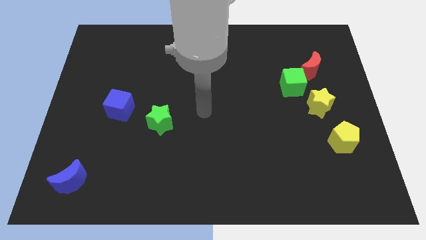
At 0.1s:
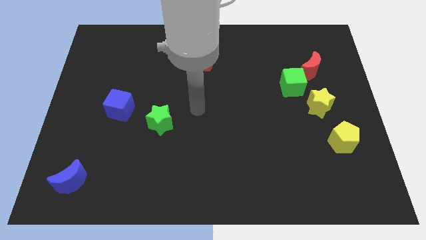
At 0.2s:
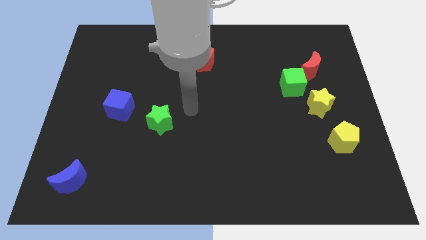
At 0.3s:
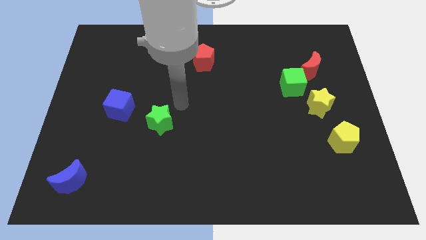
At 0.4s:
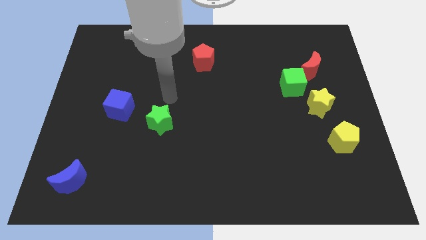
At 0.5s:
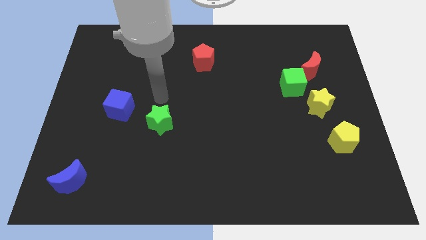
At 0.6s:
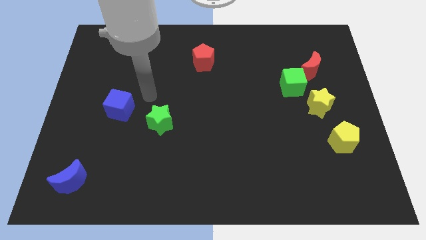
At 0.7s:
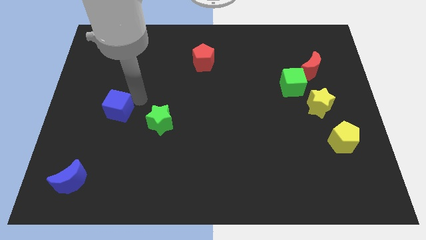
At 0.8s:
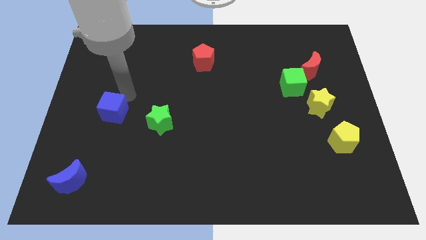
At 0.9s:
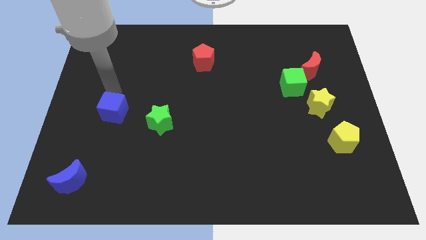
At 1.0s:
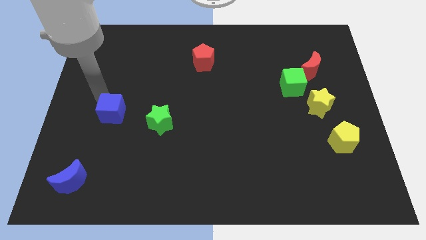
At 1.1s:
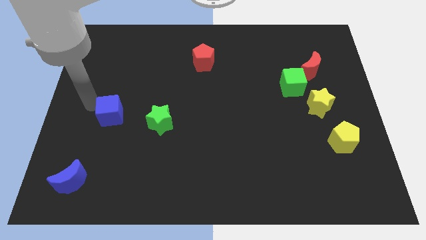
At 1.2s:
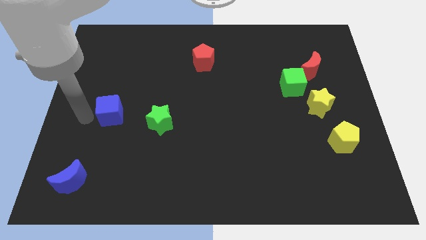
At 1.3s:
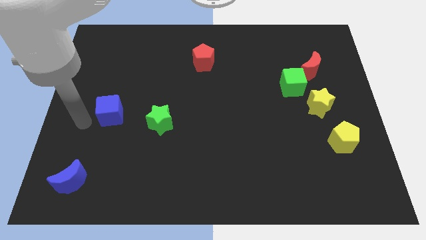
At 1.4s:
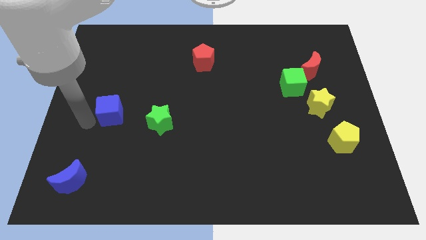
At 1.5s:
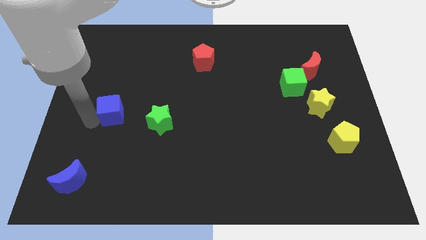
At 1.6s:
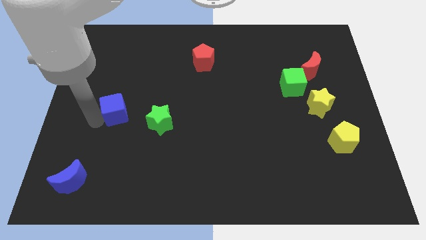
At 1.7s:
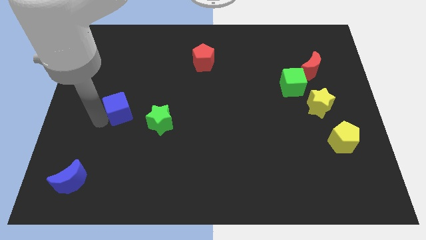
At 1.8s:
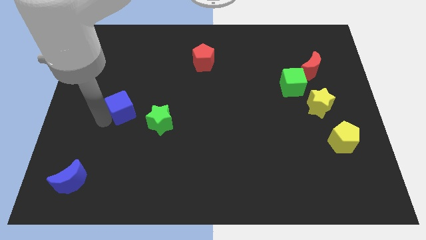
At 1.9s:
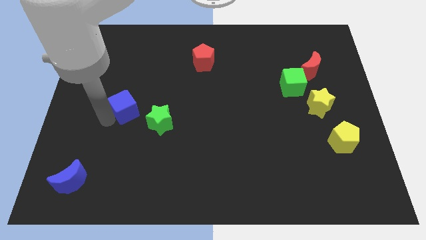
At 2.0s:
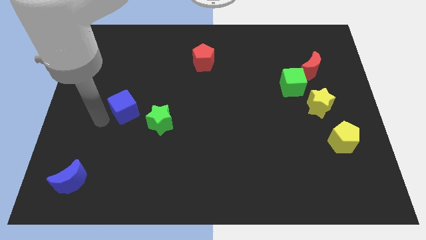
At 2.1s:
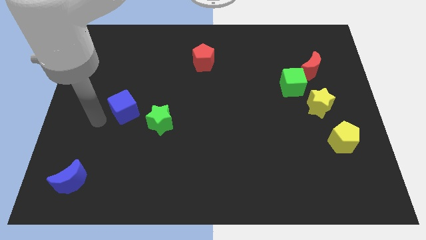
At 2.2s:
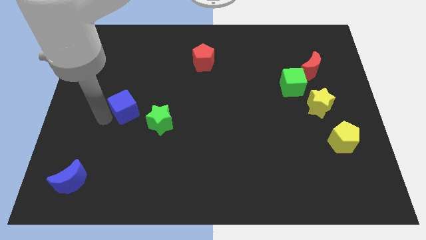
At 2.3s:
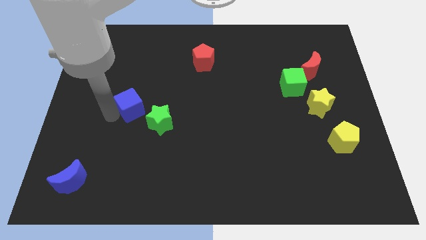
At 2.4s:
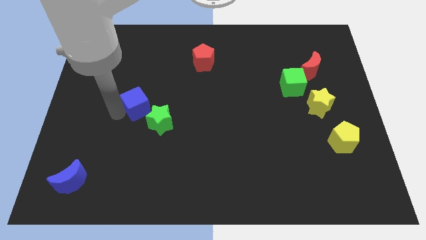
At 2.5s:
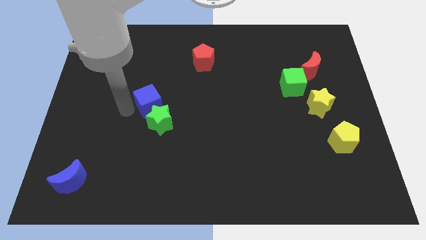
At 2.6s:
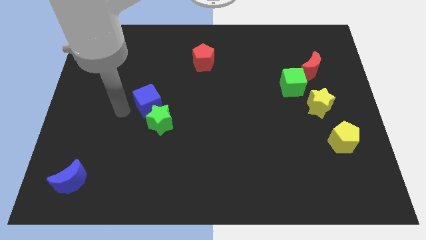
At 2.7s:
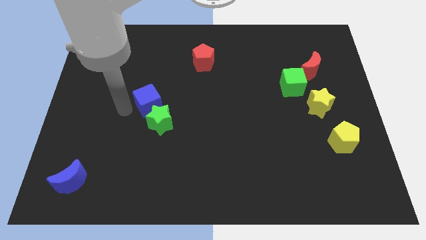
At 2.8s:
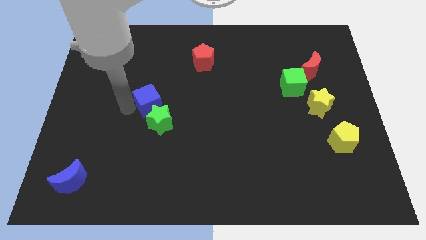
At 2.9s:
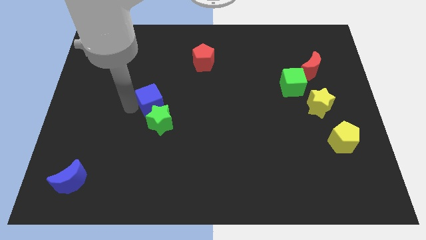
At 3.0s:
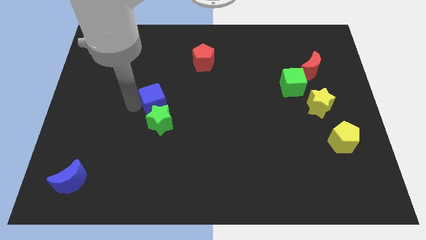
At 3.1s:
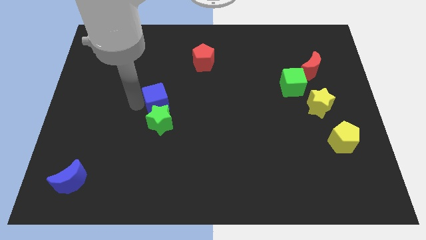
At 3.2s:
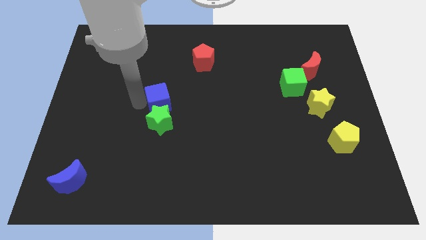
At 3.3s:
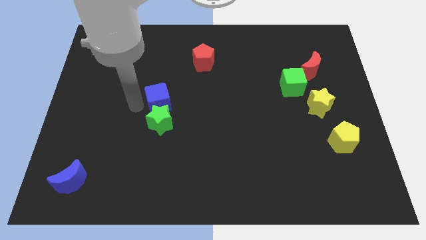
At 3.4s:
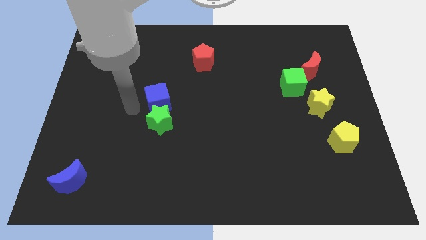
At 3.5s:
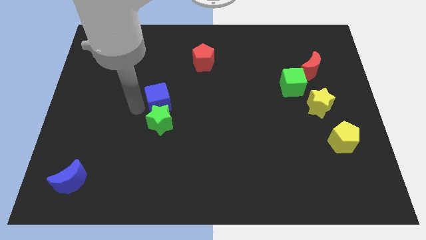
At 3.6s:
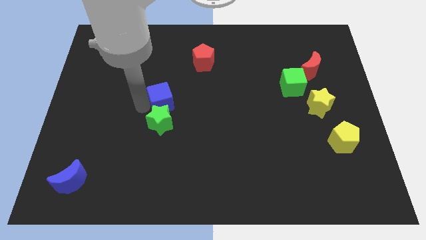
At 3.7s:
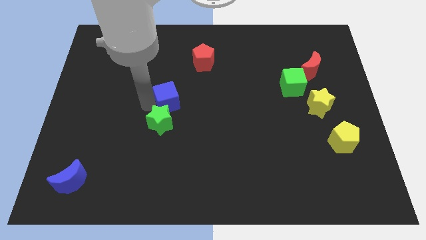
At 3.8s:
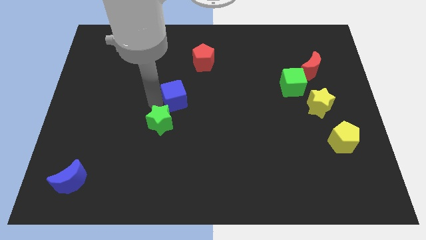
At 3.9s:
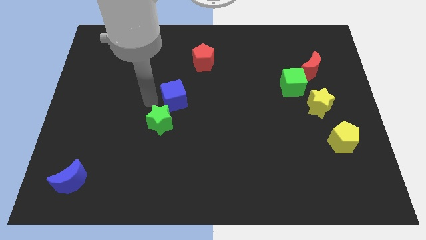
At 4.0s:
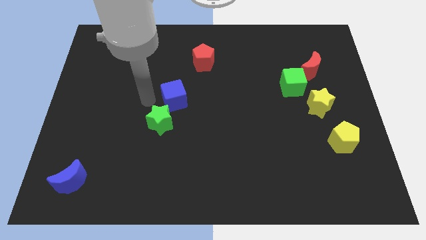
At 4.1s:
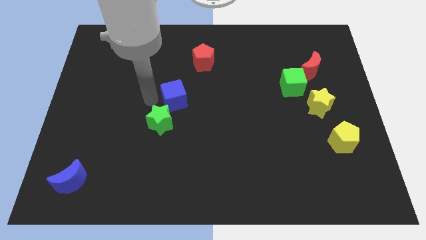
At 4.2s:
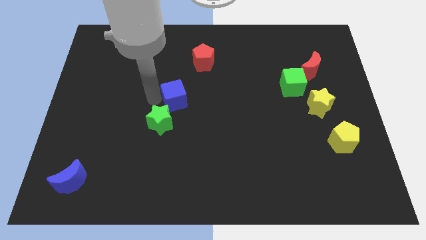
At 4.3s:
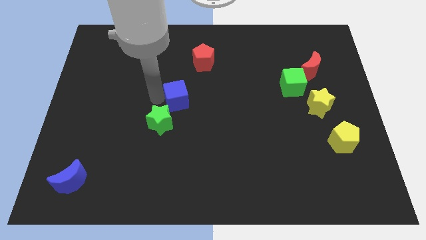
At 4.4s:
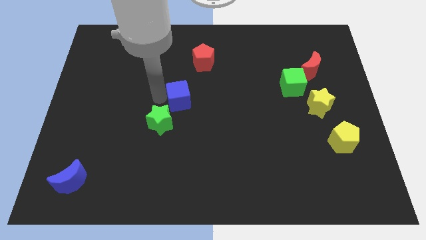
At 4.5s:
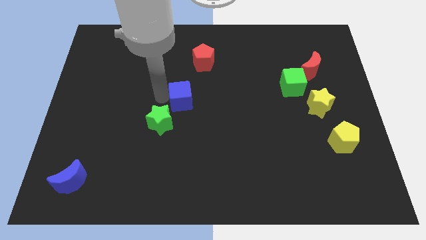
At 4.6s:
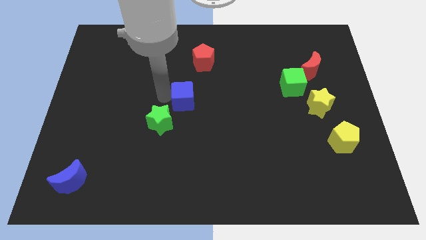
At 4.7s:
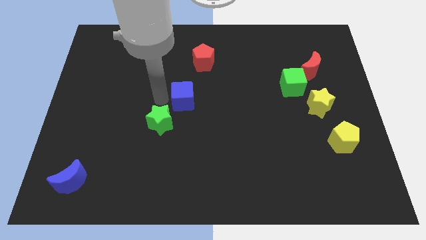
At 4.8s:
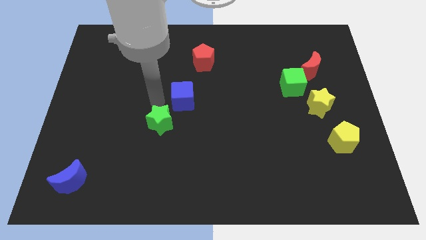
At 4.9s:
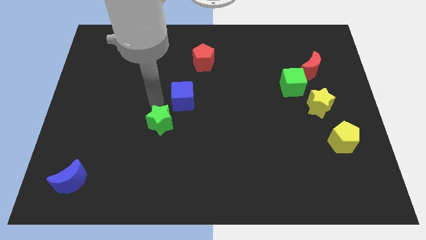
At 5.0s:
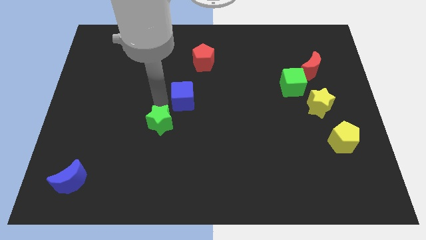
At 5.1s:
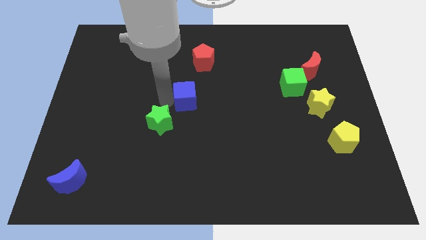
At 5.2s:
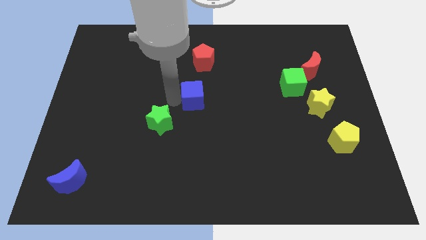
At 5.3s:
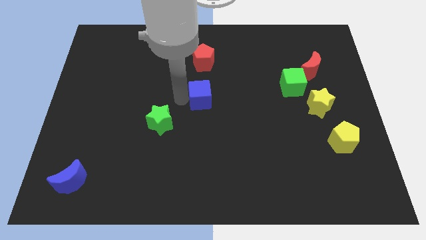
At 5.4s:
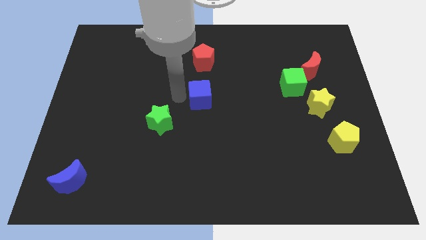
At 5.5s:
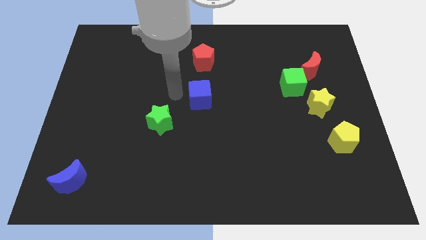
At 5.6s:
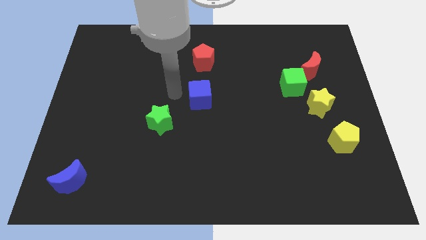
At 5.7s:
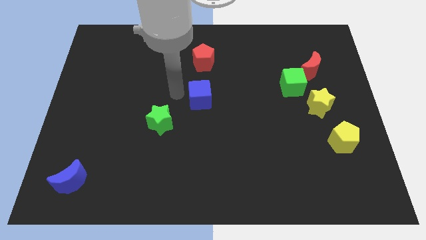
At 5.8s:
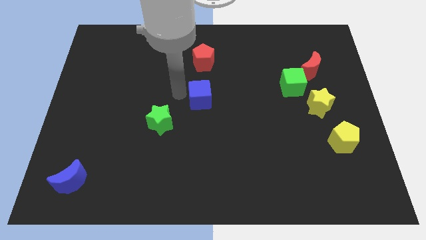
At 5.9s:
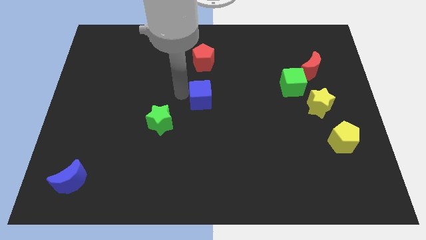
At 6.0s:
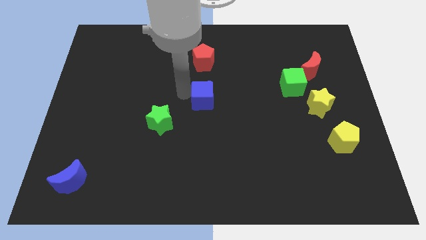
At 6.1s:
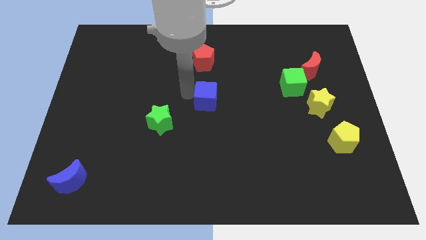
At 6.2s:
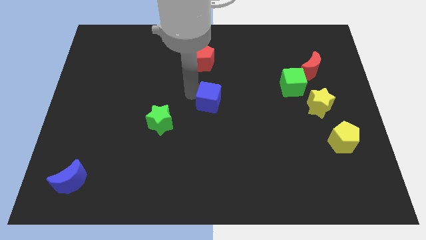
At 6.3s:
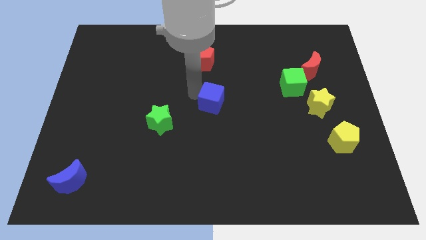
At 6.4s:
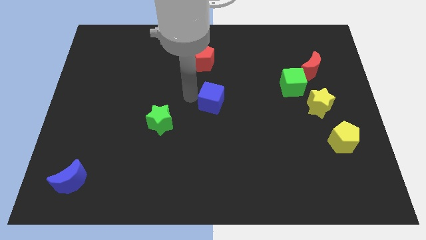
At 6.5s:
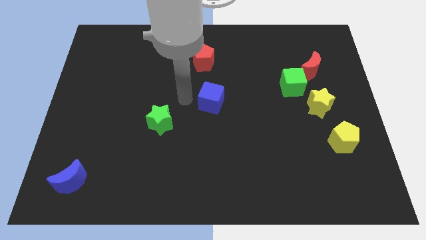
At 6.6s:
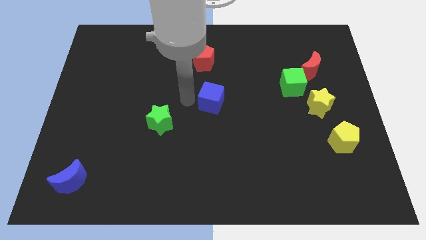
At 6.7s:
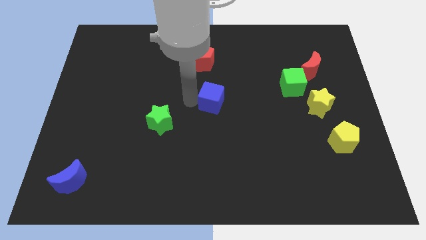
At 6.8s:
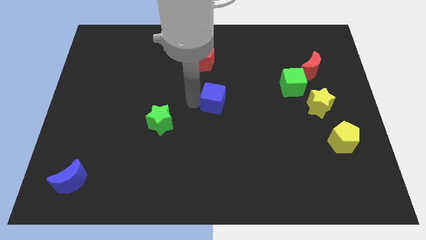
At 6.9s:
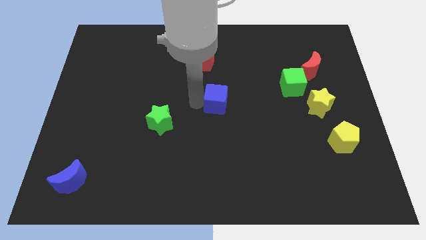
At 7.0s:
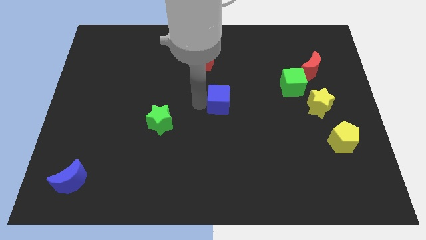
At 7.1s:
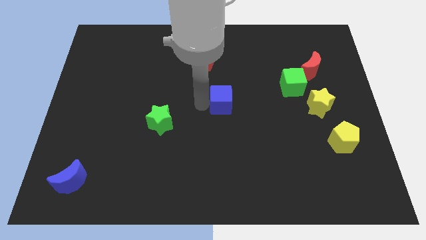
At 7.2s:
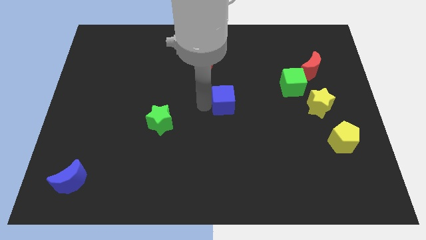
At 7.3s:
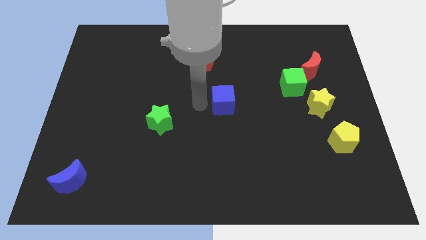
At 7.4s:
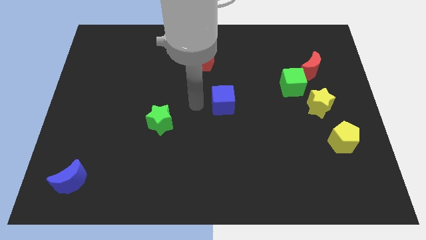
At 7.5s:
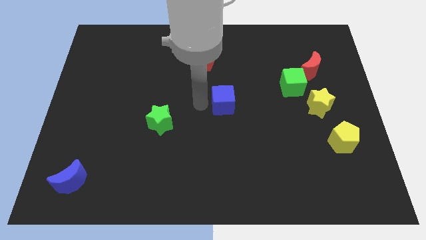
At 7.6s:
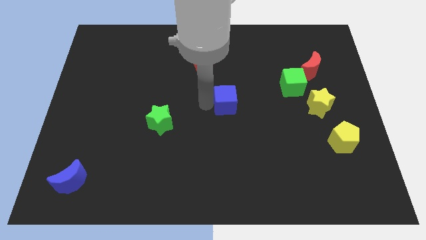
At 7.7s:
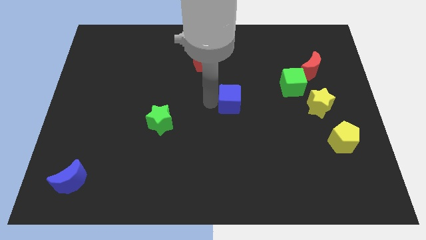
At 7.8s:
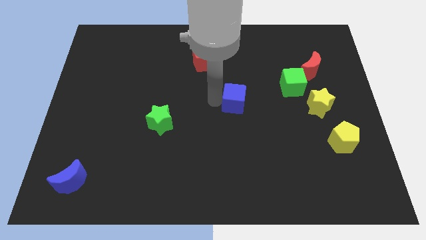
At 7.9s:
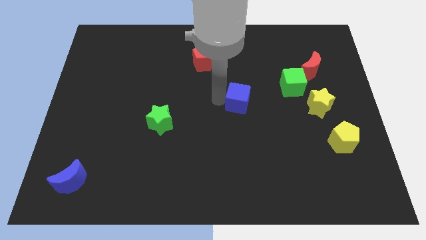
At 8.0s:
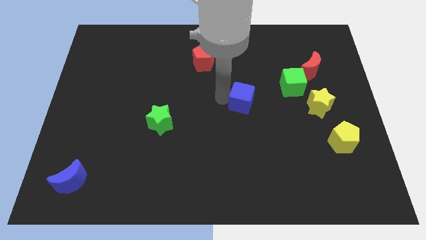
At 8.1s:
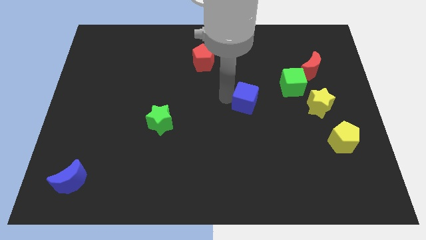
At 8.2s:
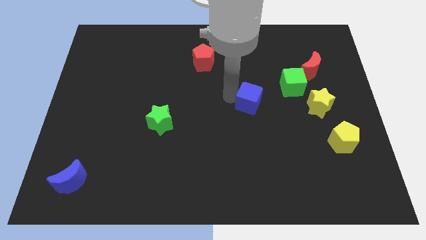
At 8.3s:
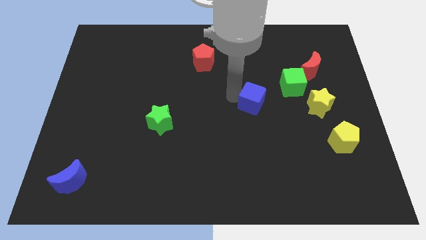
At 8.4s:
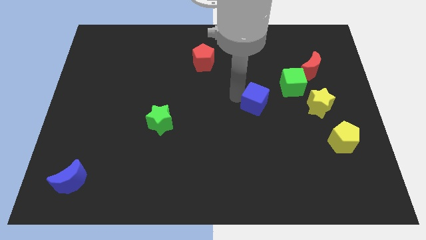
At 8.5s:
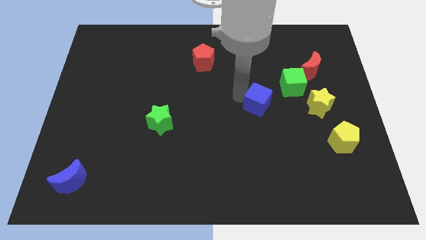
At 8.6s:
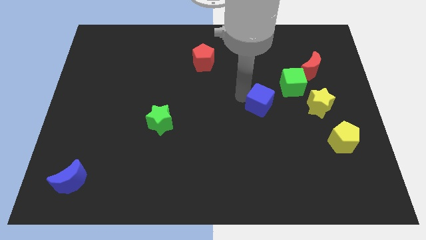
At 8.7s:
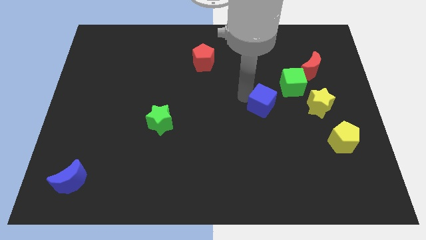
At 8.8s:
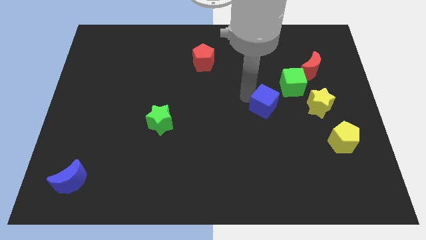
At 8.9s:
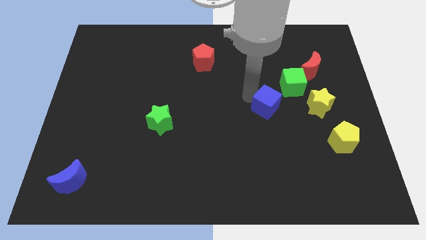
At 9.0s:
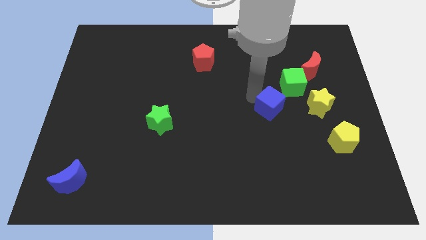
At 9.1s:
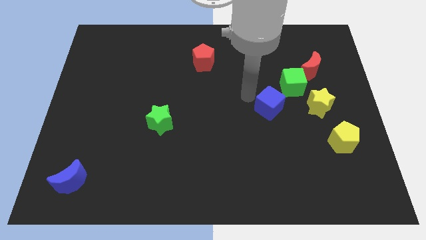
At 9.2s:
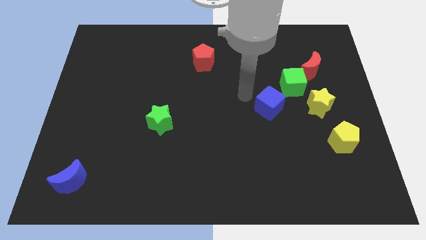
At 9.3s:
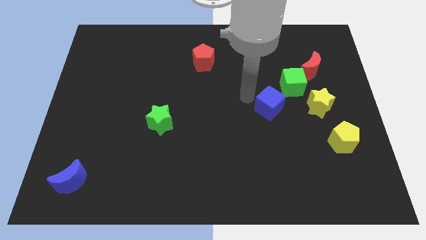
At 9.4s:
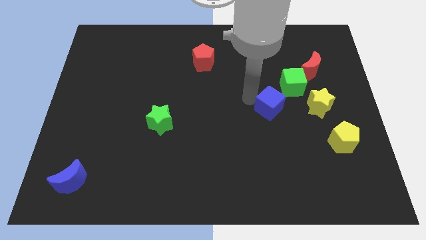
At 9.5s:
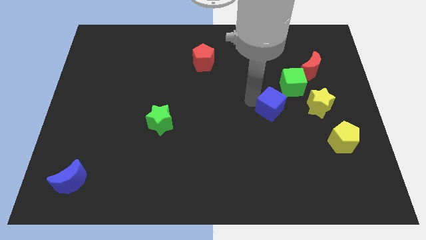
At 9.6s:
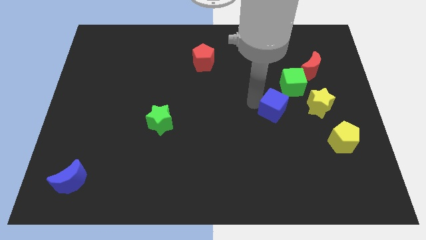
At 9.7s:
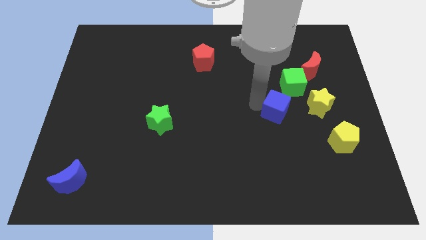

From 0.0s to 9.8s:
slide the blue cube below the green cube
